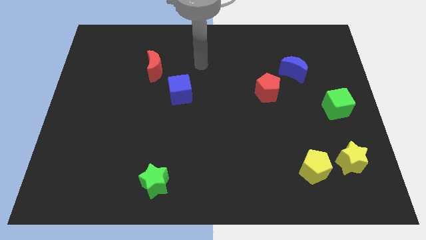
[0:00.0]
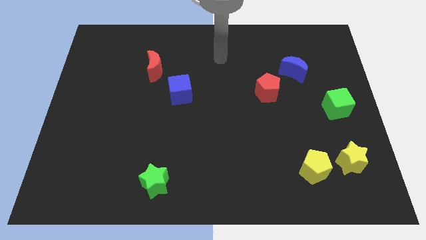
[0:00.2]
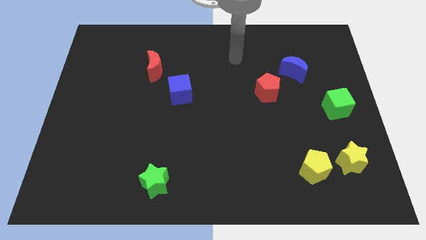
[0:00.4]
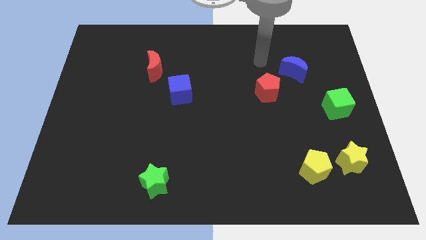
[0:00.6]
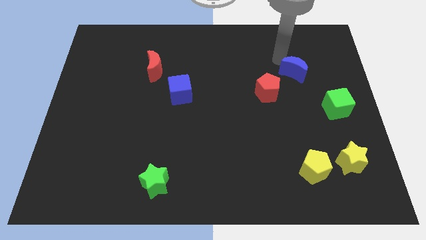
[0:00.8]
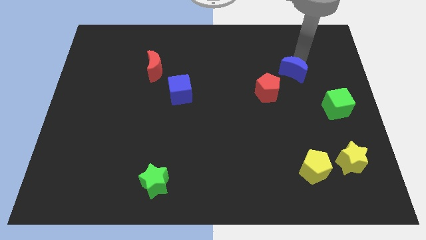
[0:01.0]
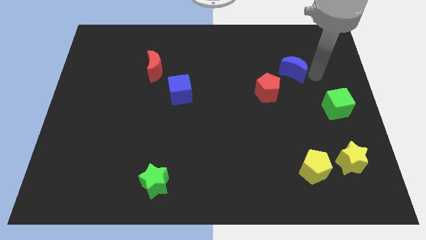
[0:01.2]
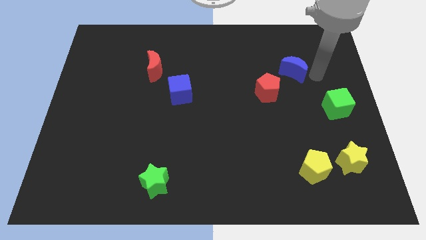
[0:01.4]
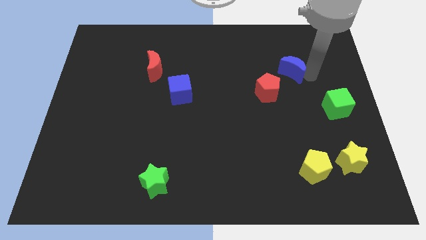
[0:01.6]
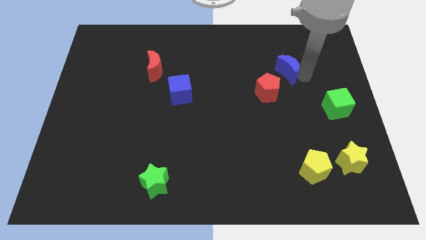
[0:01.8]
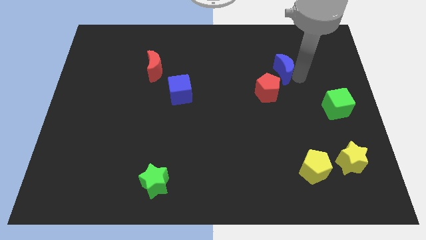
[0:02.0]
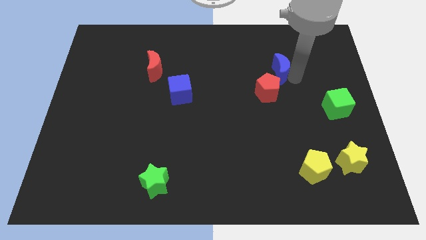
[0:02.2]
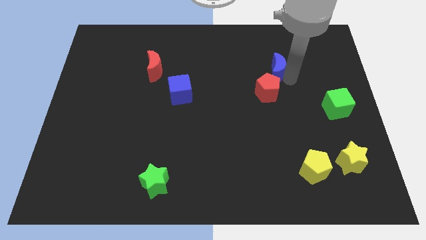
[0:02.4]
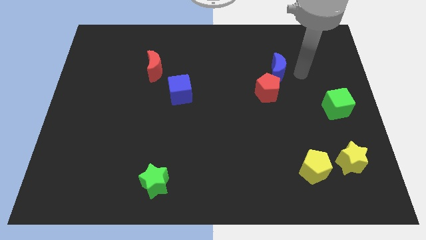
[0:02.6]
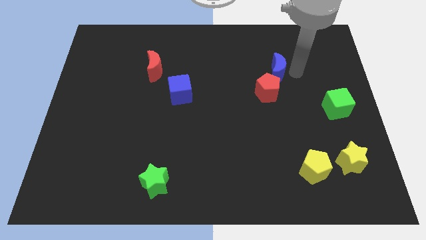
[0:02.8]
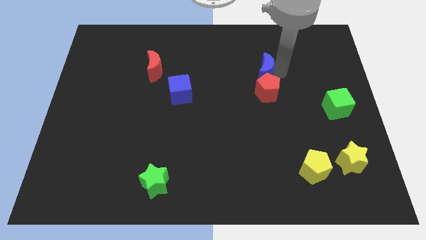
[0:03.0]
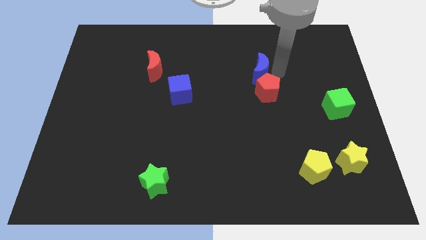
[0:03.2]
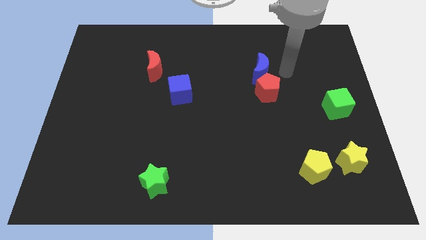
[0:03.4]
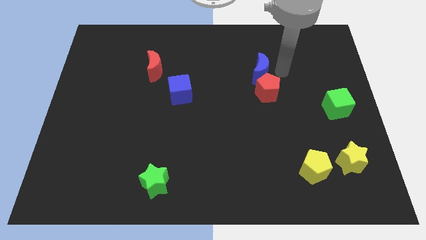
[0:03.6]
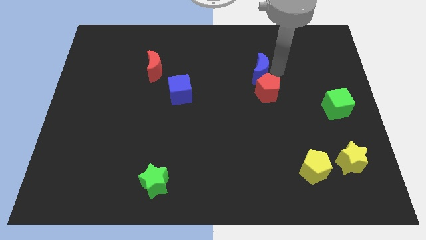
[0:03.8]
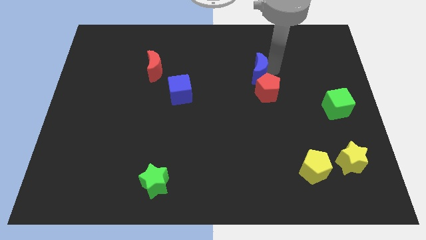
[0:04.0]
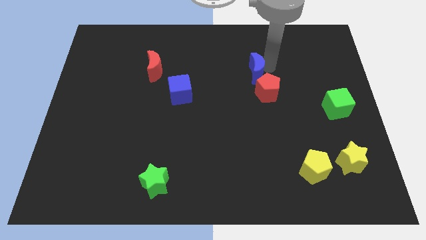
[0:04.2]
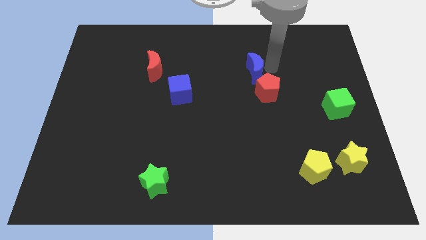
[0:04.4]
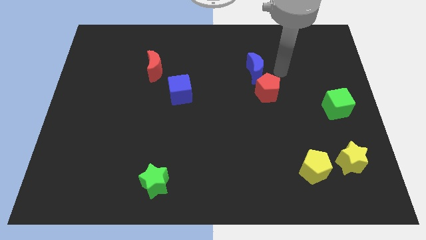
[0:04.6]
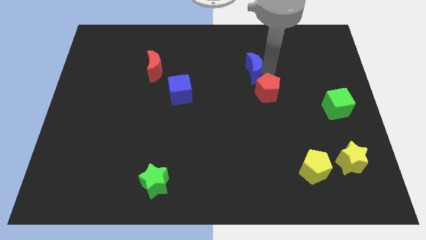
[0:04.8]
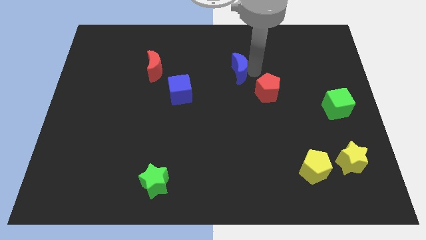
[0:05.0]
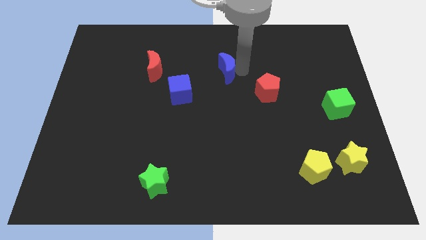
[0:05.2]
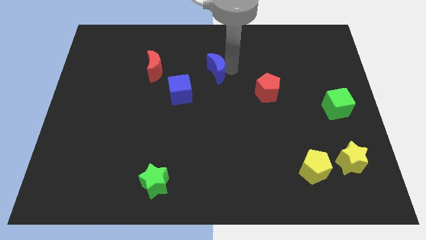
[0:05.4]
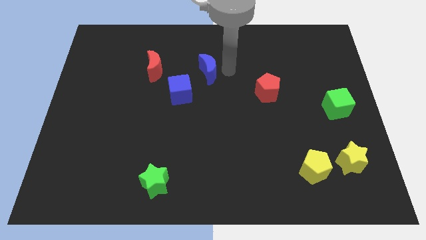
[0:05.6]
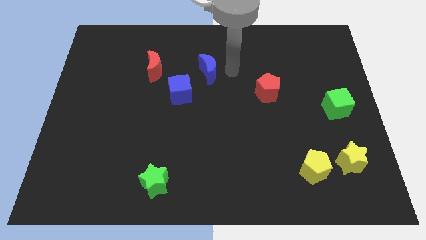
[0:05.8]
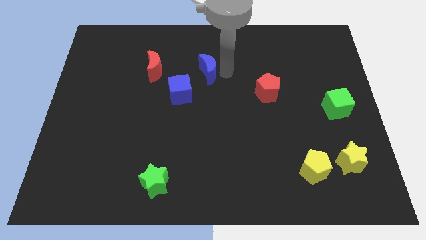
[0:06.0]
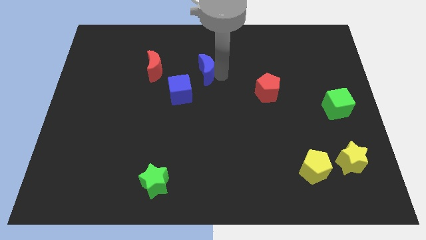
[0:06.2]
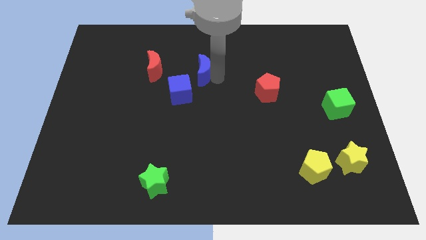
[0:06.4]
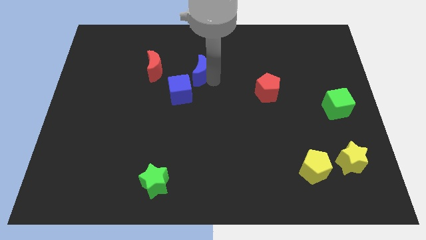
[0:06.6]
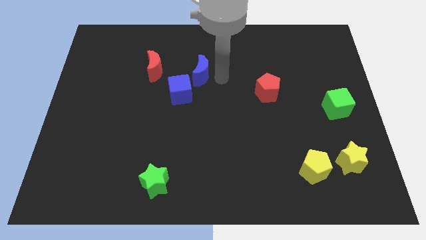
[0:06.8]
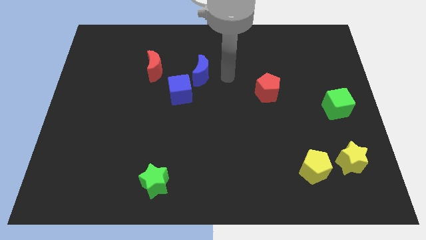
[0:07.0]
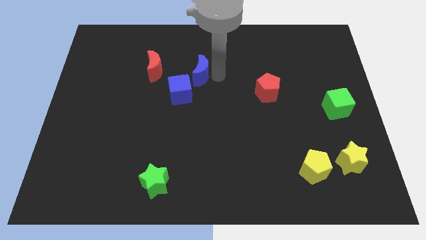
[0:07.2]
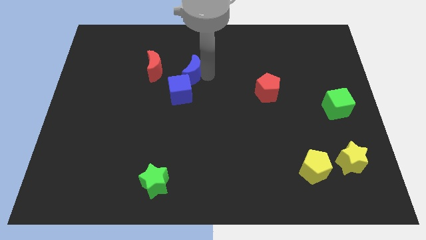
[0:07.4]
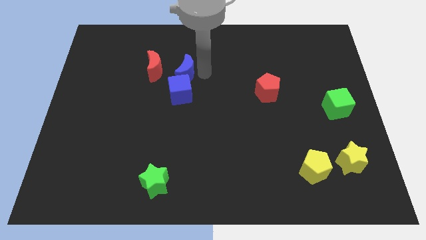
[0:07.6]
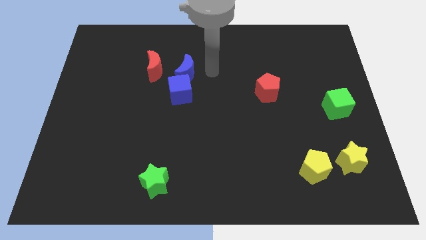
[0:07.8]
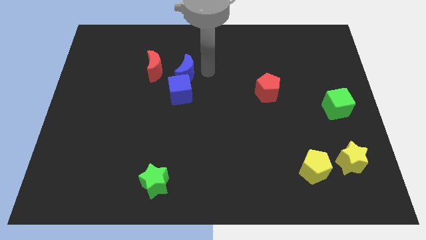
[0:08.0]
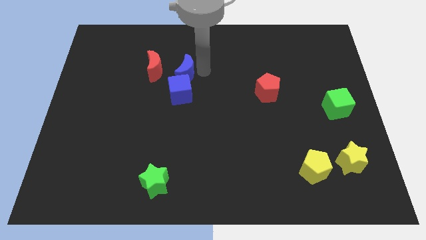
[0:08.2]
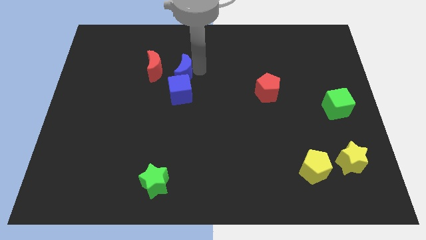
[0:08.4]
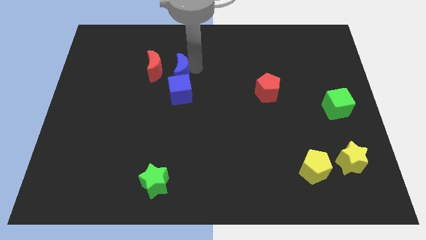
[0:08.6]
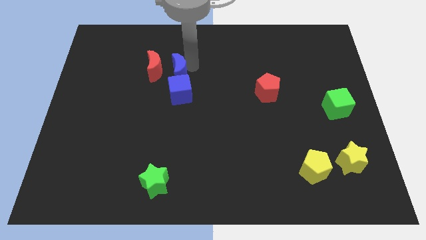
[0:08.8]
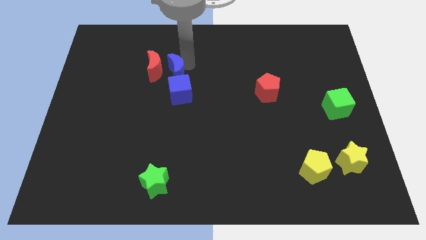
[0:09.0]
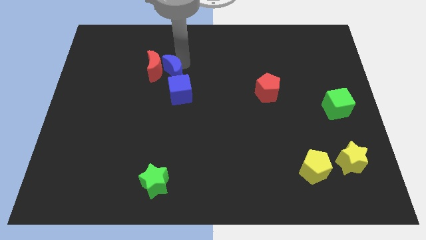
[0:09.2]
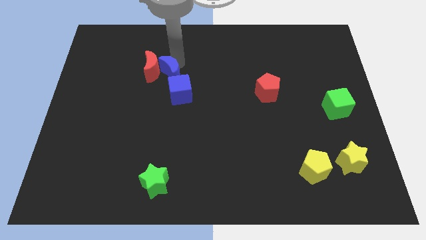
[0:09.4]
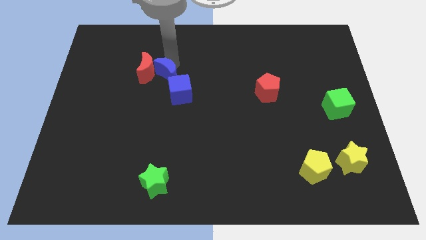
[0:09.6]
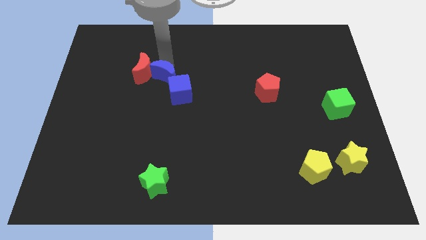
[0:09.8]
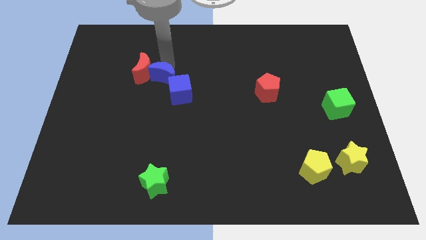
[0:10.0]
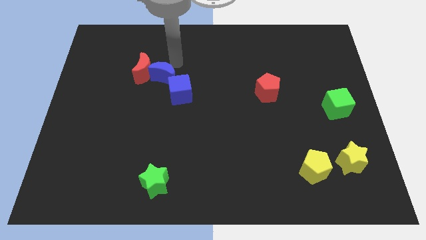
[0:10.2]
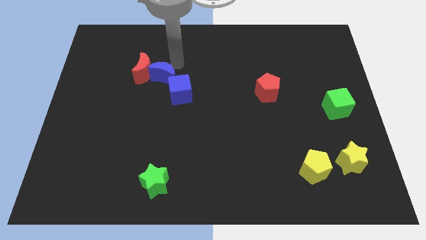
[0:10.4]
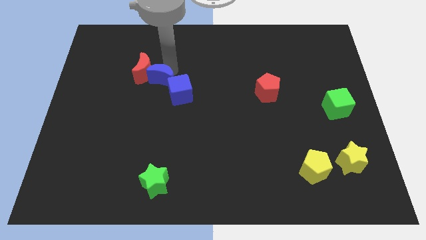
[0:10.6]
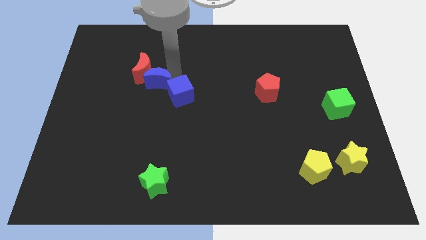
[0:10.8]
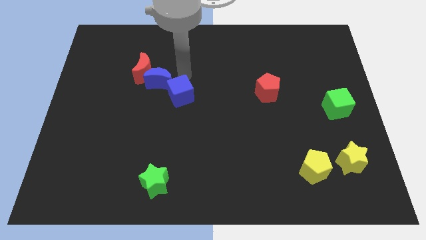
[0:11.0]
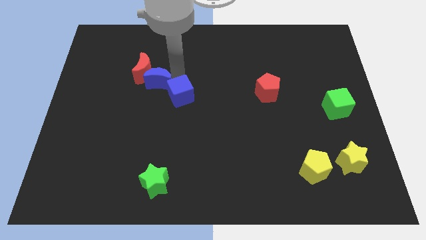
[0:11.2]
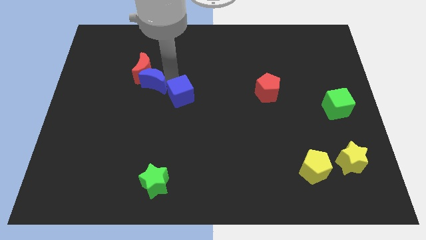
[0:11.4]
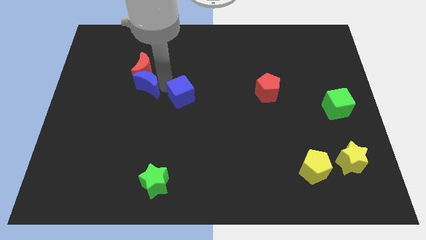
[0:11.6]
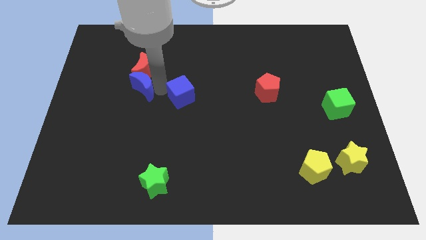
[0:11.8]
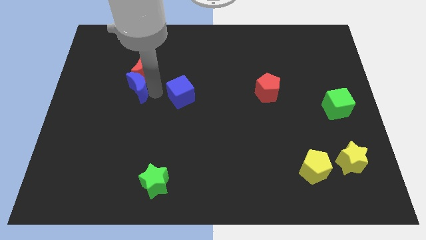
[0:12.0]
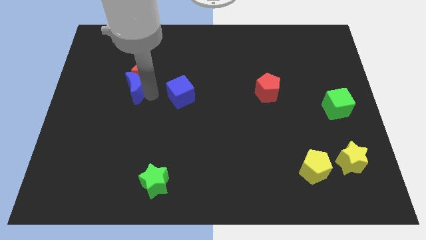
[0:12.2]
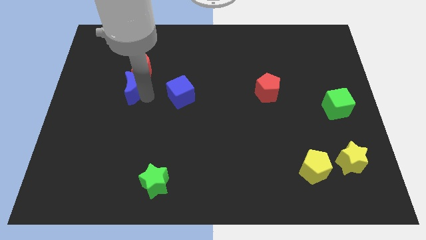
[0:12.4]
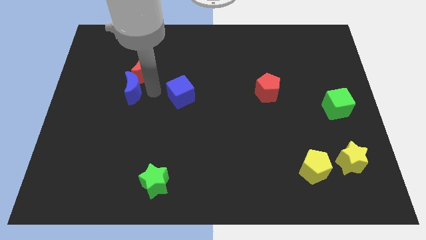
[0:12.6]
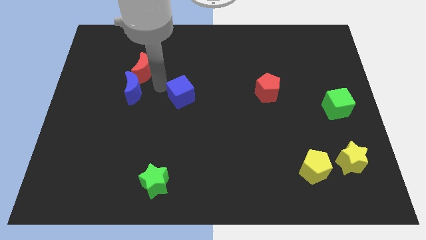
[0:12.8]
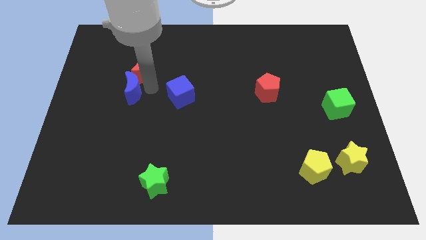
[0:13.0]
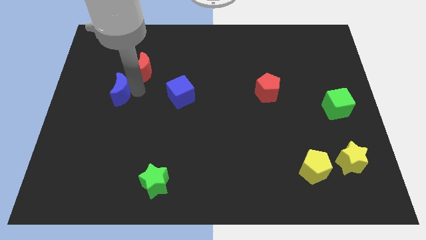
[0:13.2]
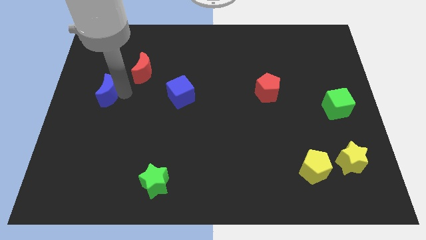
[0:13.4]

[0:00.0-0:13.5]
slide the blue moon to the left side
